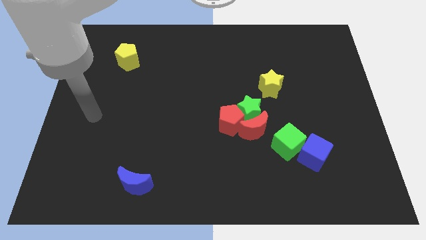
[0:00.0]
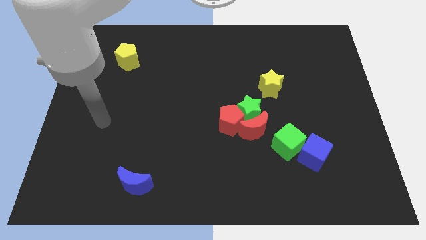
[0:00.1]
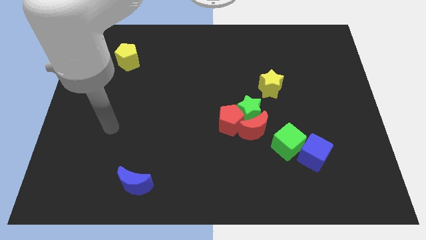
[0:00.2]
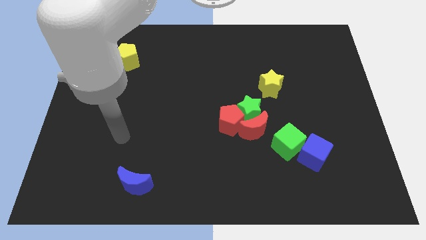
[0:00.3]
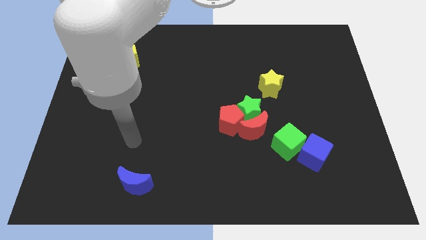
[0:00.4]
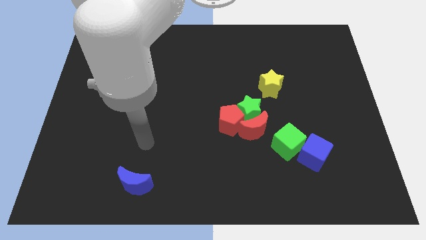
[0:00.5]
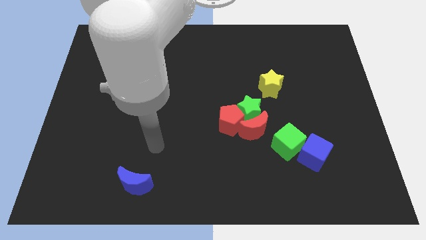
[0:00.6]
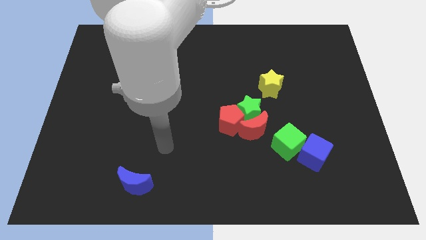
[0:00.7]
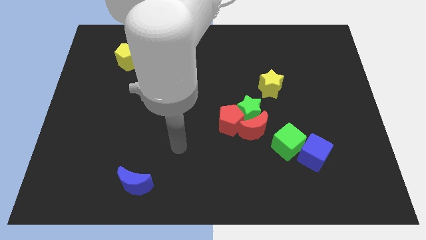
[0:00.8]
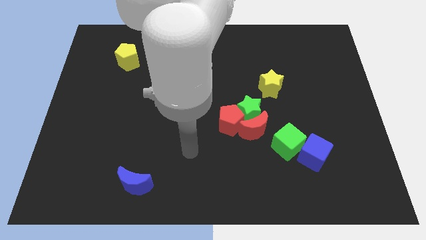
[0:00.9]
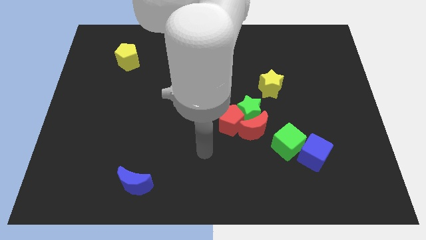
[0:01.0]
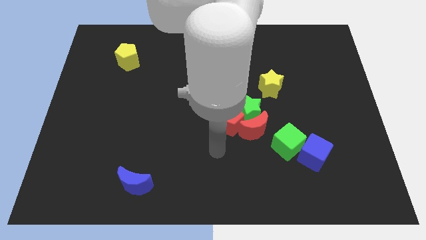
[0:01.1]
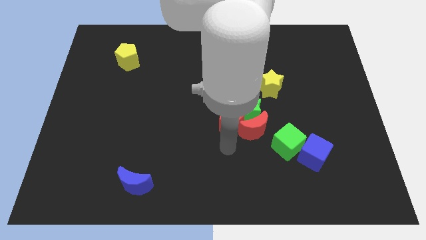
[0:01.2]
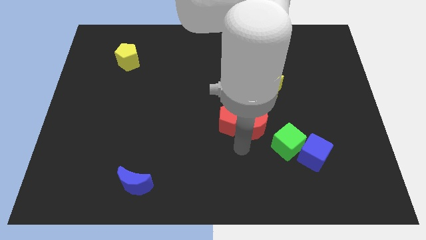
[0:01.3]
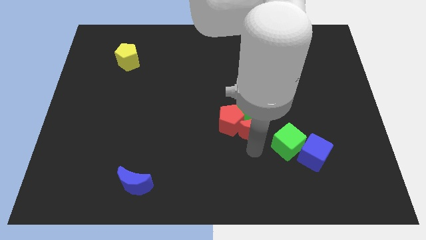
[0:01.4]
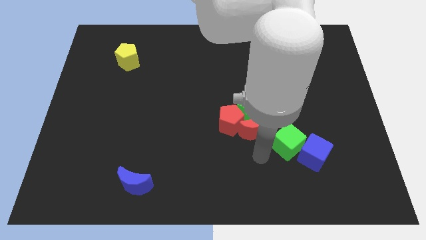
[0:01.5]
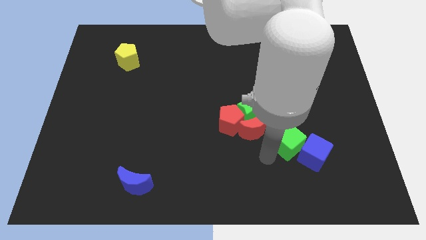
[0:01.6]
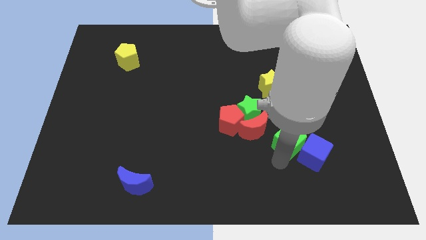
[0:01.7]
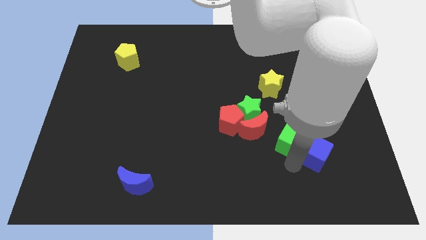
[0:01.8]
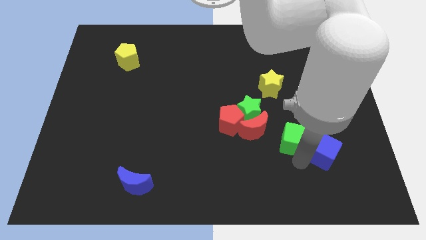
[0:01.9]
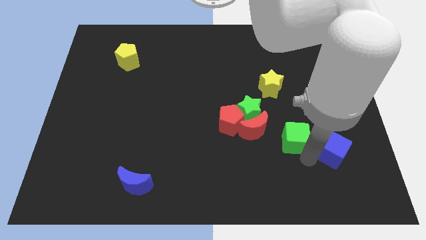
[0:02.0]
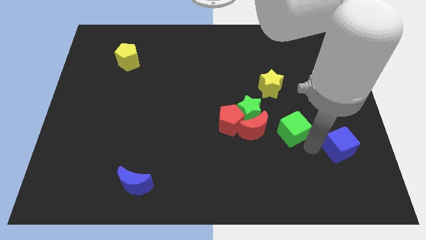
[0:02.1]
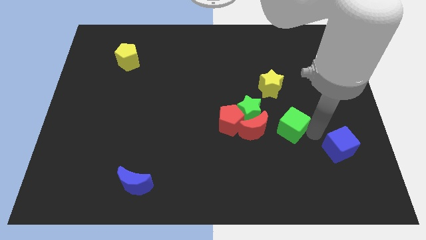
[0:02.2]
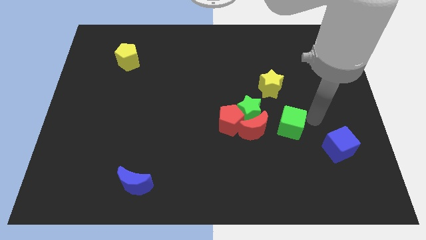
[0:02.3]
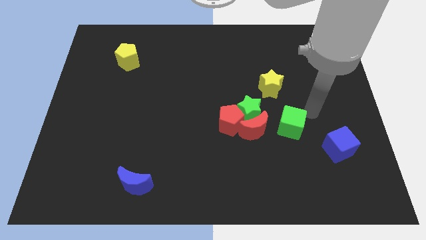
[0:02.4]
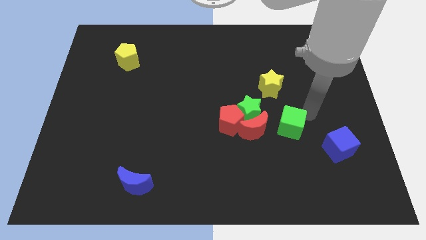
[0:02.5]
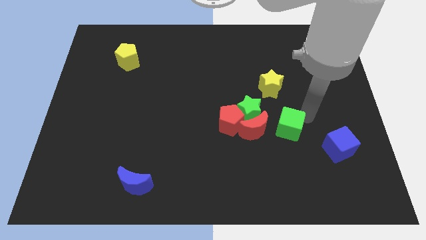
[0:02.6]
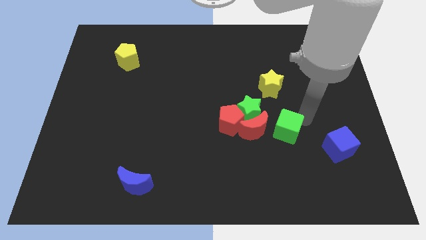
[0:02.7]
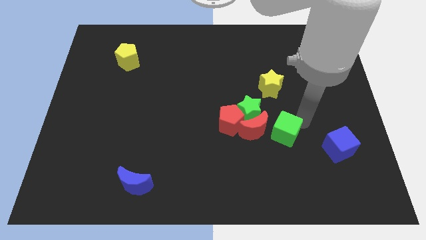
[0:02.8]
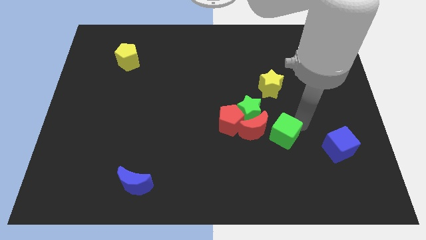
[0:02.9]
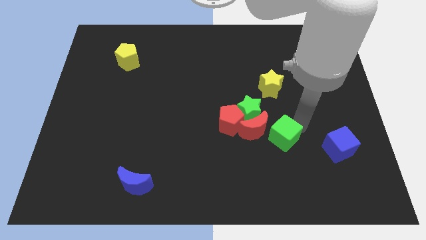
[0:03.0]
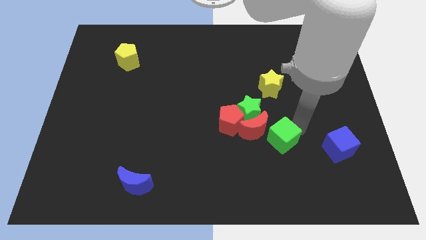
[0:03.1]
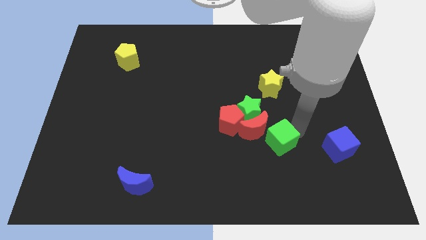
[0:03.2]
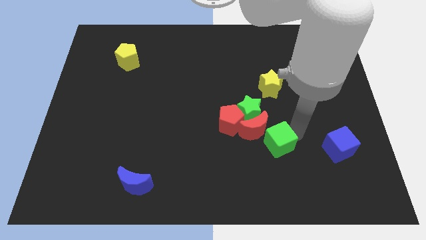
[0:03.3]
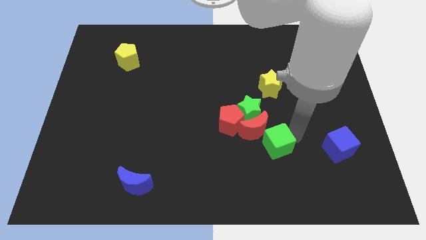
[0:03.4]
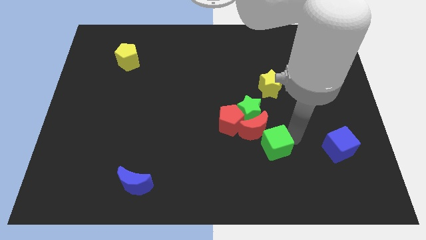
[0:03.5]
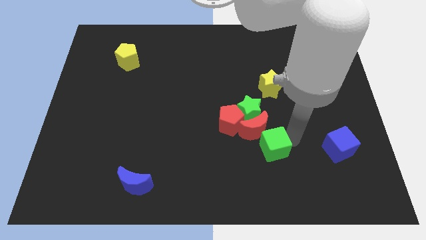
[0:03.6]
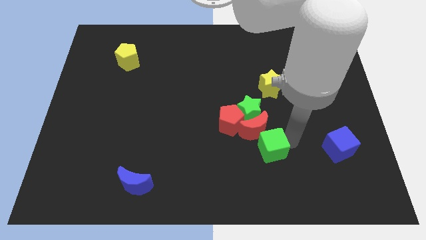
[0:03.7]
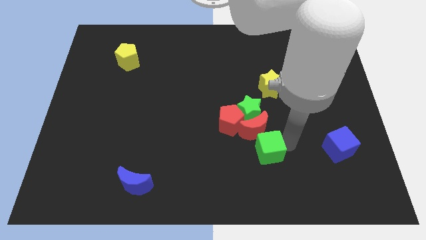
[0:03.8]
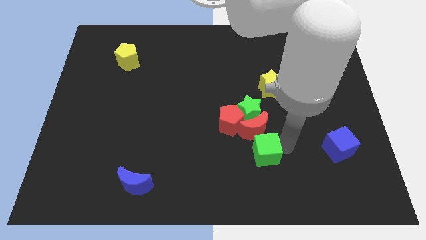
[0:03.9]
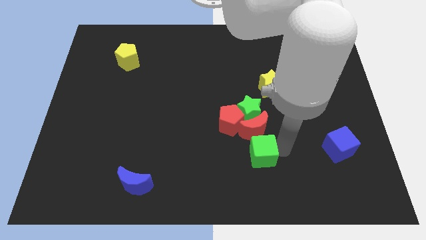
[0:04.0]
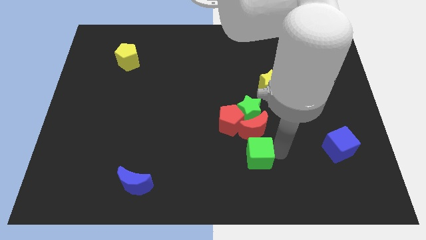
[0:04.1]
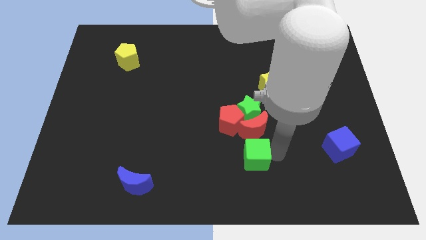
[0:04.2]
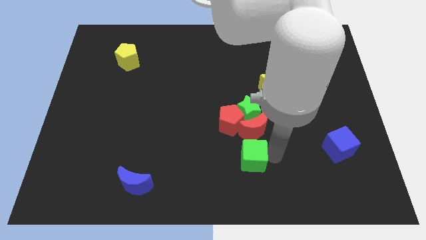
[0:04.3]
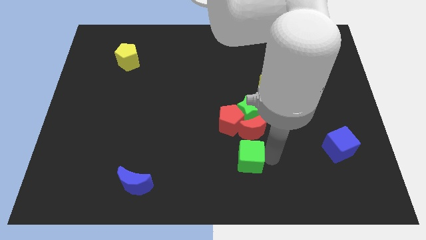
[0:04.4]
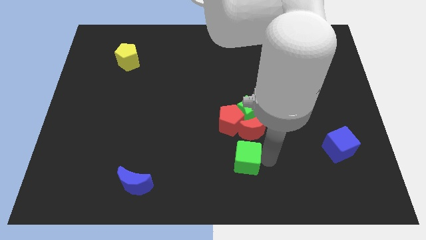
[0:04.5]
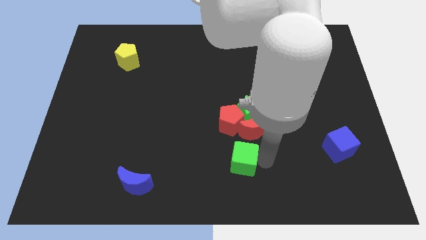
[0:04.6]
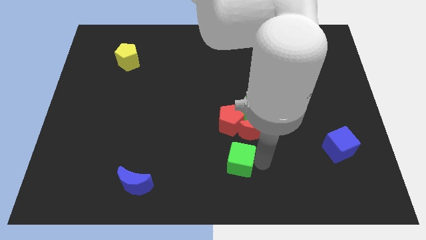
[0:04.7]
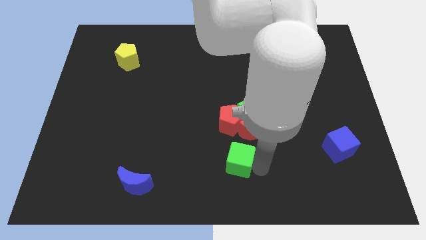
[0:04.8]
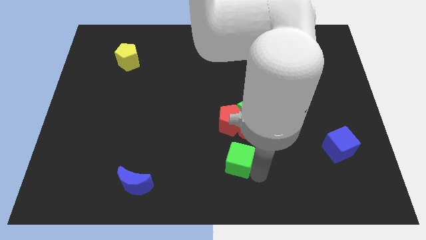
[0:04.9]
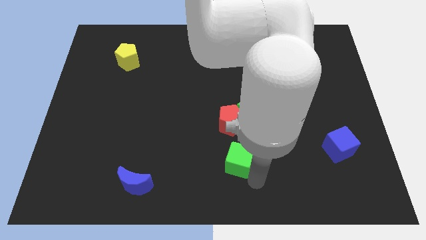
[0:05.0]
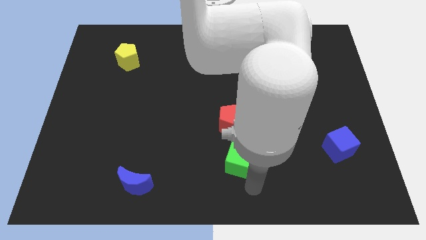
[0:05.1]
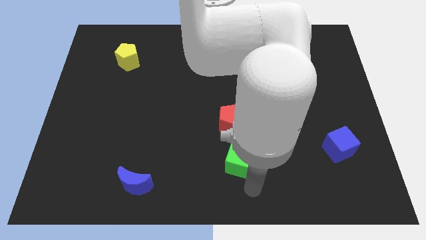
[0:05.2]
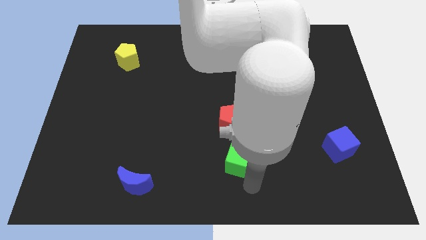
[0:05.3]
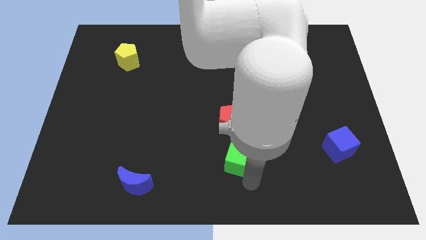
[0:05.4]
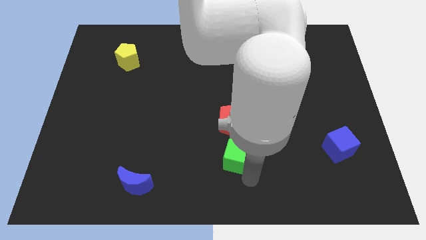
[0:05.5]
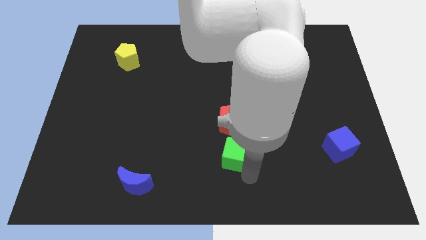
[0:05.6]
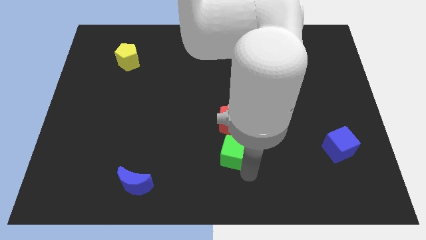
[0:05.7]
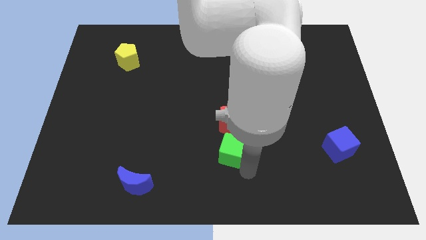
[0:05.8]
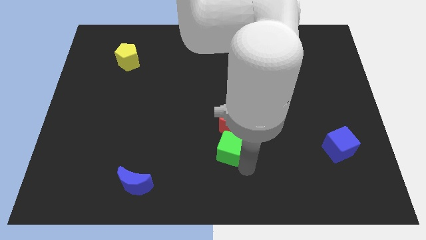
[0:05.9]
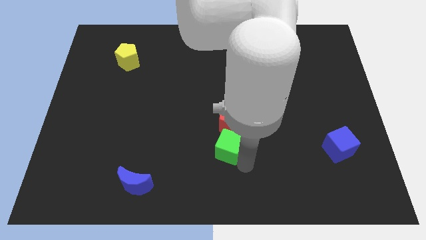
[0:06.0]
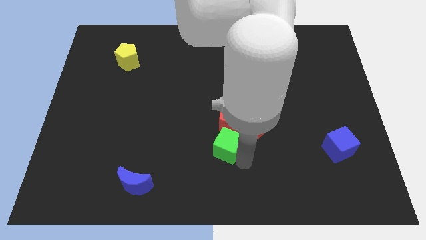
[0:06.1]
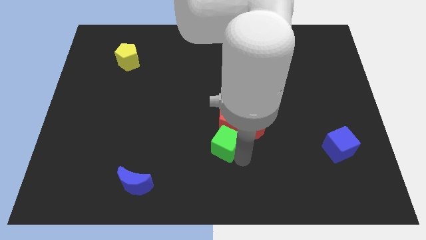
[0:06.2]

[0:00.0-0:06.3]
move the green cube next to the red pentagon

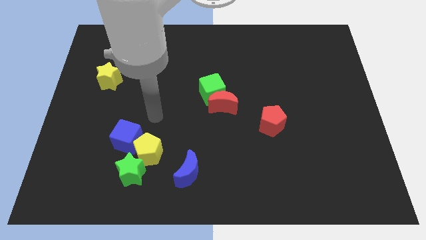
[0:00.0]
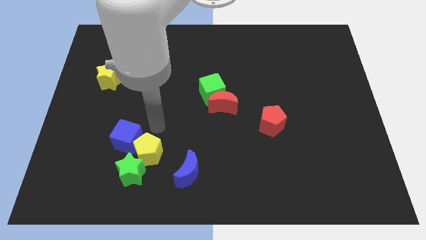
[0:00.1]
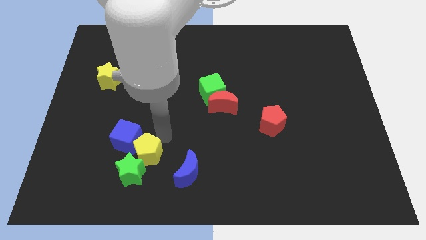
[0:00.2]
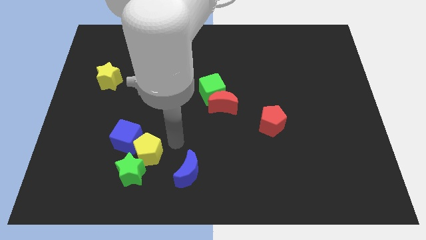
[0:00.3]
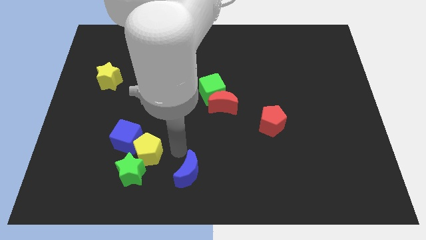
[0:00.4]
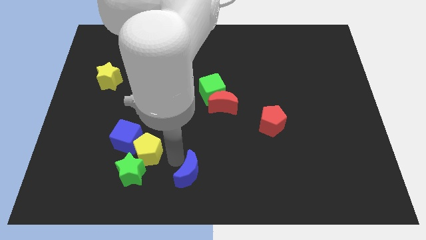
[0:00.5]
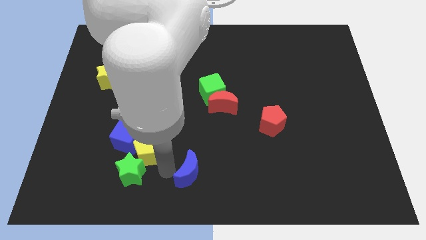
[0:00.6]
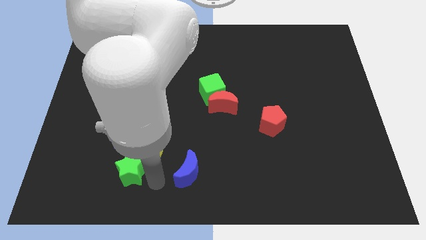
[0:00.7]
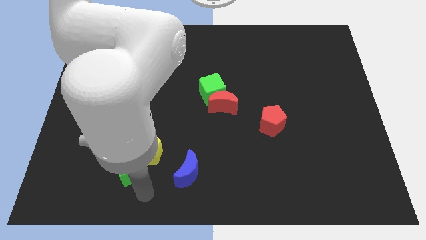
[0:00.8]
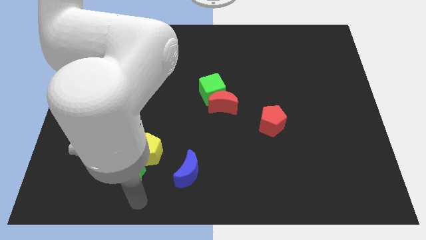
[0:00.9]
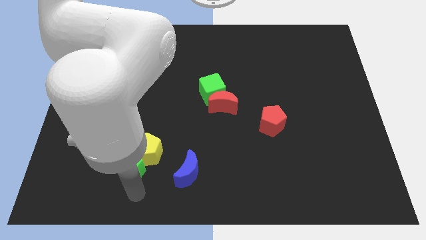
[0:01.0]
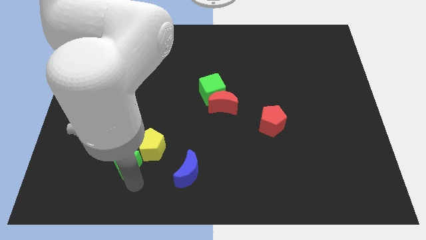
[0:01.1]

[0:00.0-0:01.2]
put the green star close to the blue cube
